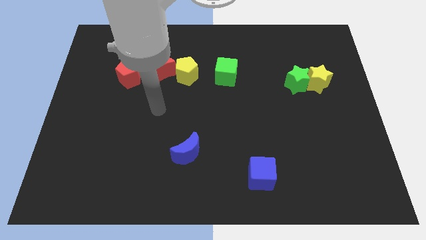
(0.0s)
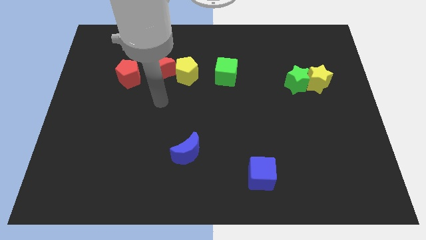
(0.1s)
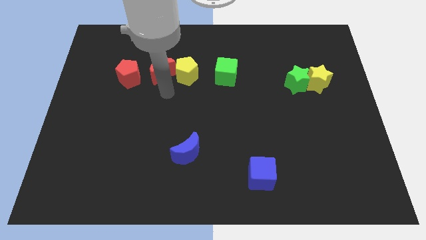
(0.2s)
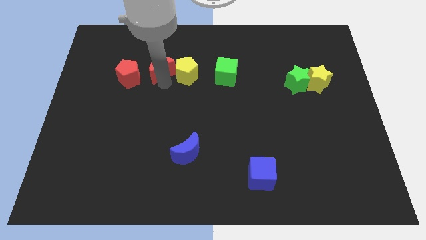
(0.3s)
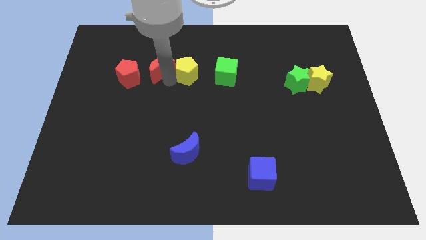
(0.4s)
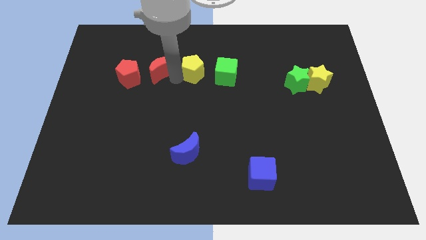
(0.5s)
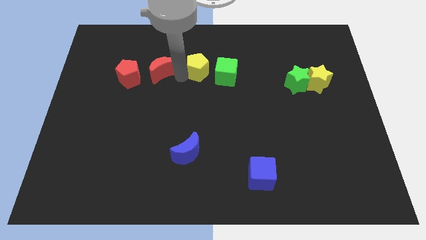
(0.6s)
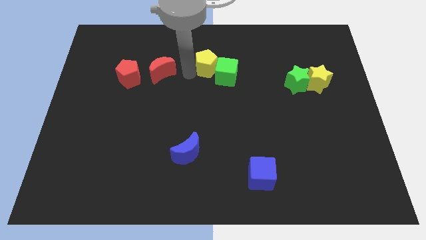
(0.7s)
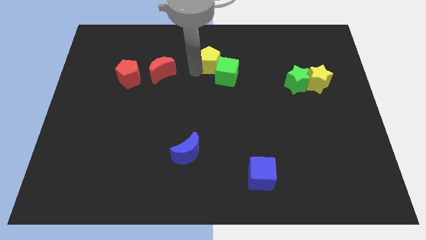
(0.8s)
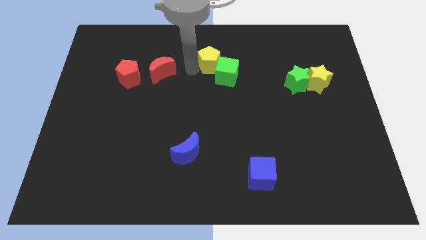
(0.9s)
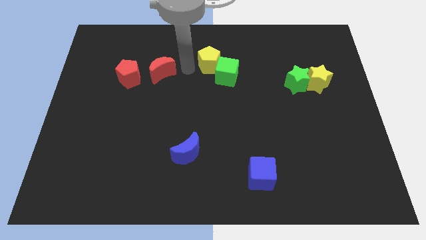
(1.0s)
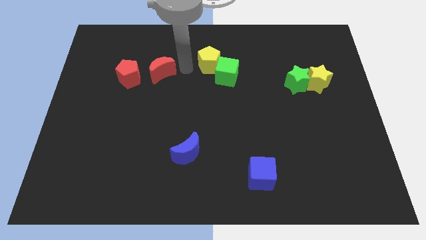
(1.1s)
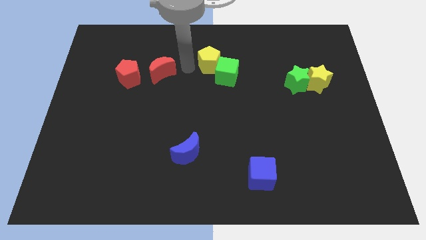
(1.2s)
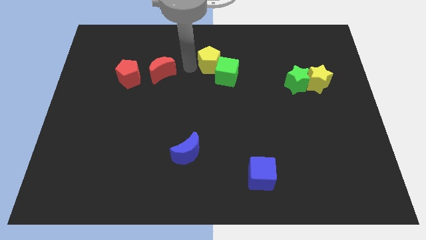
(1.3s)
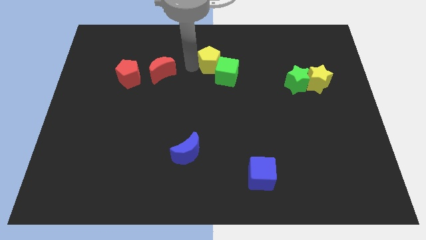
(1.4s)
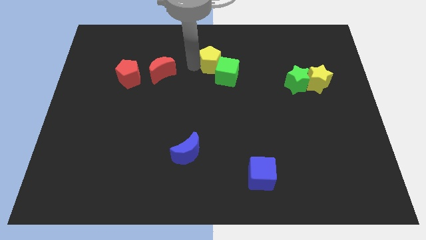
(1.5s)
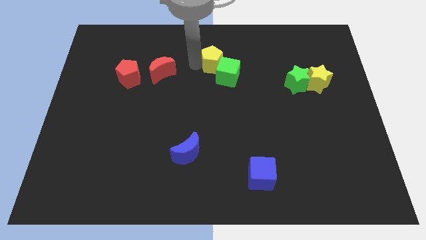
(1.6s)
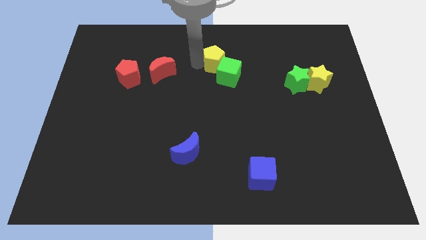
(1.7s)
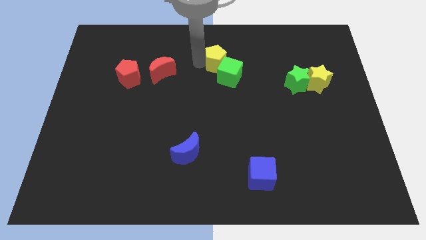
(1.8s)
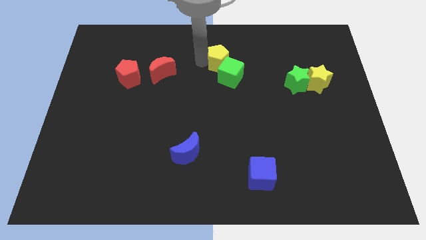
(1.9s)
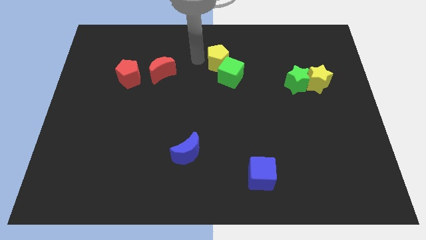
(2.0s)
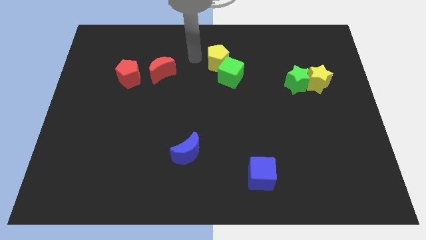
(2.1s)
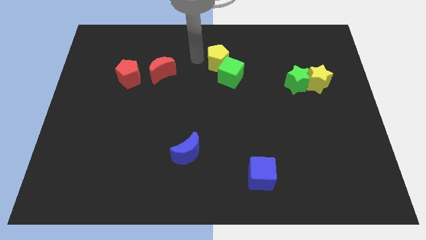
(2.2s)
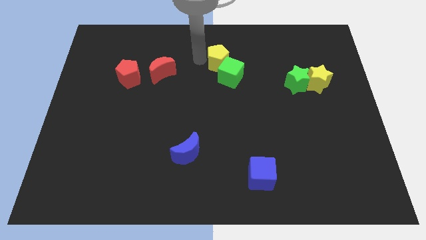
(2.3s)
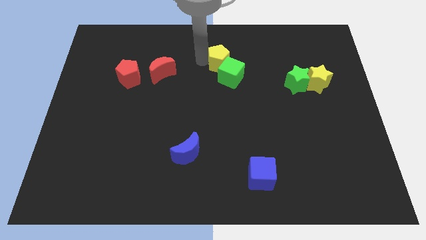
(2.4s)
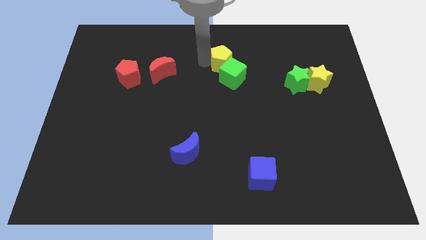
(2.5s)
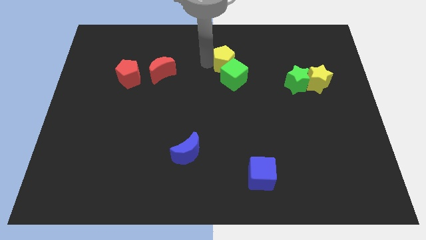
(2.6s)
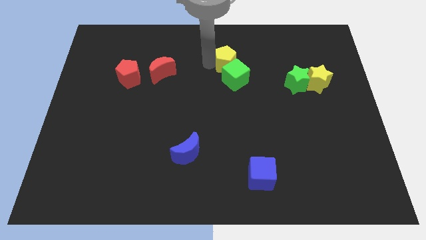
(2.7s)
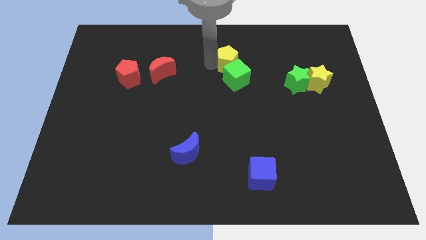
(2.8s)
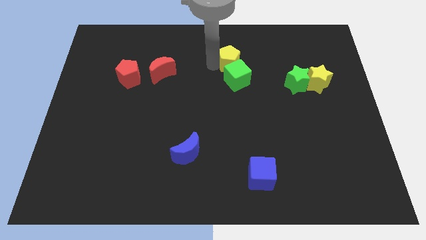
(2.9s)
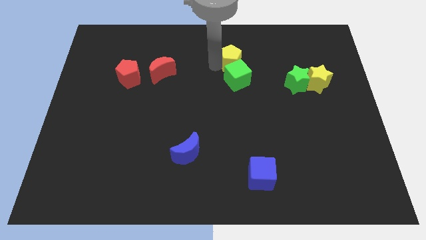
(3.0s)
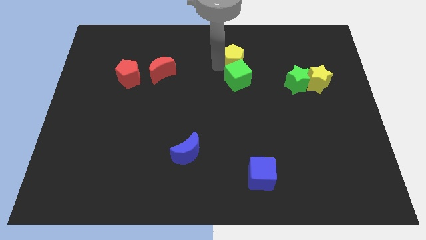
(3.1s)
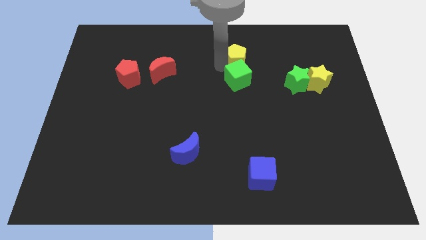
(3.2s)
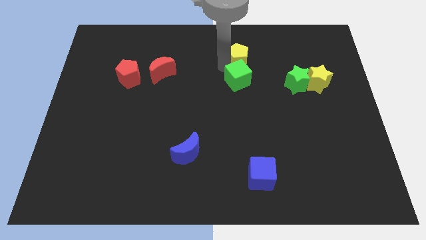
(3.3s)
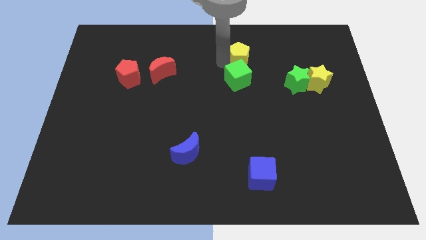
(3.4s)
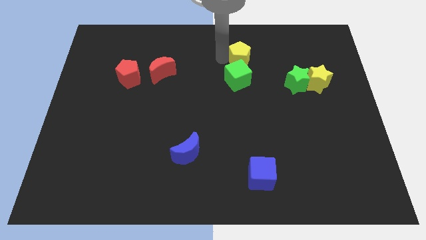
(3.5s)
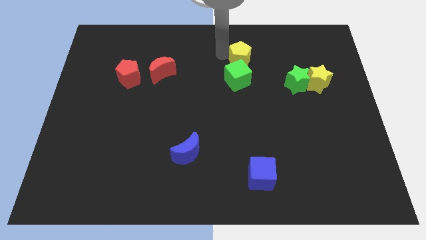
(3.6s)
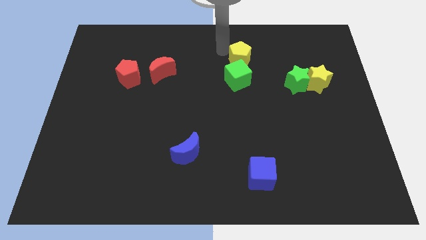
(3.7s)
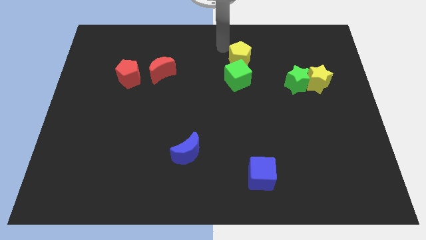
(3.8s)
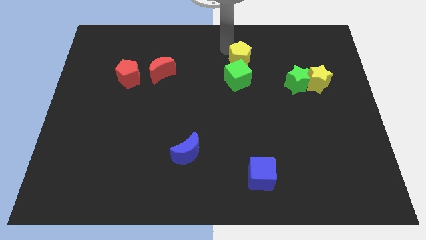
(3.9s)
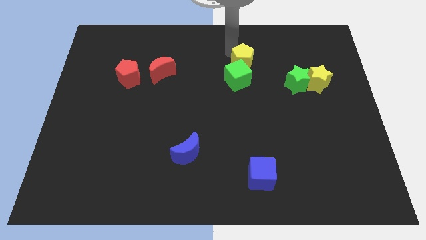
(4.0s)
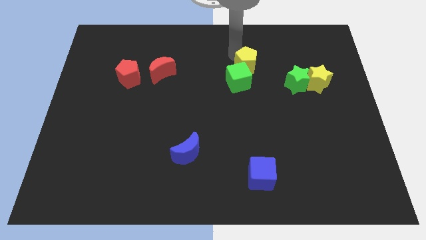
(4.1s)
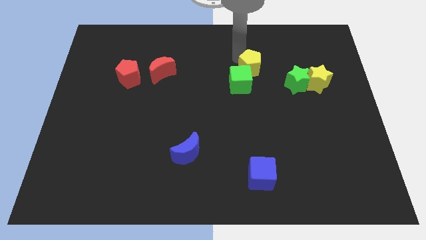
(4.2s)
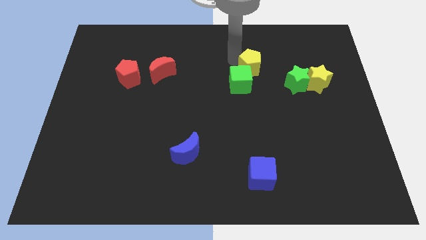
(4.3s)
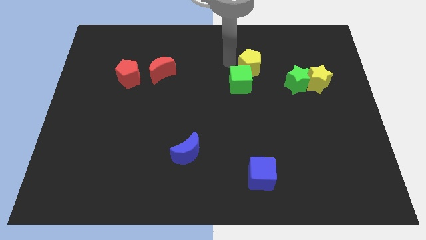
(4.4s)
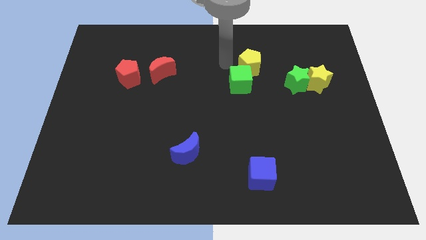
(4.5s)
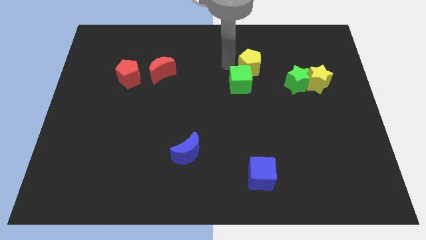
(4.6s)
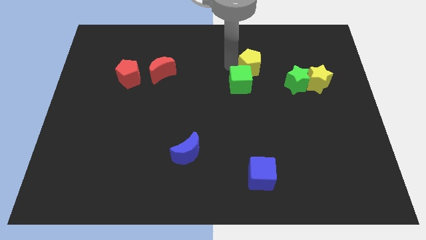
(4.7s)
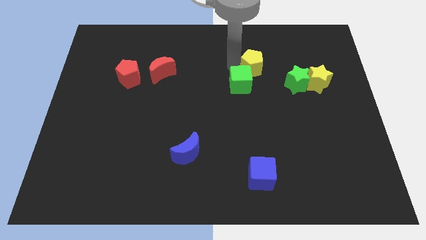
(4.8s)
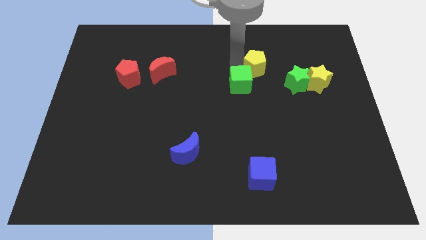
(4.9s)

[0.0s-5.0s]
move the yellow pentagon to the top left side of the green star

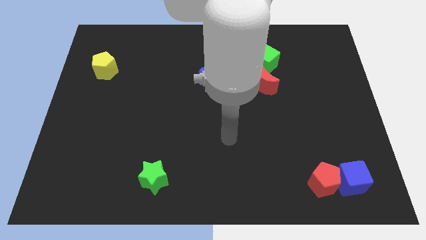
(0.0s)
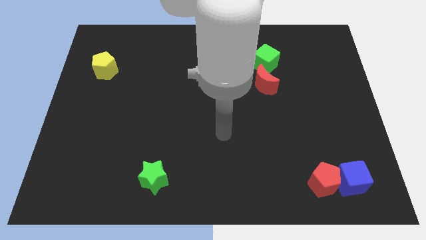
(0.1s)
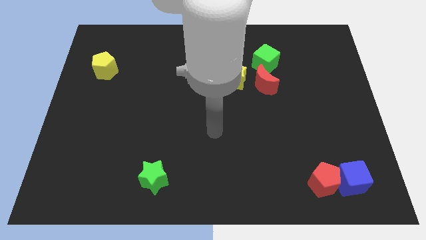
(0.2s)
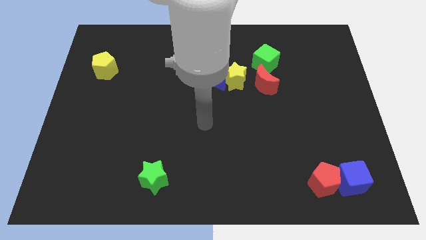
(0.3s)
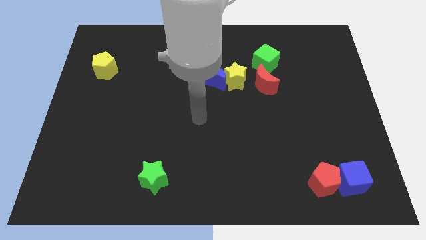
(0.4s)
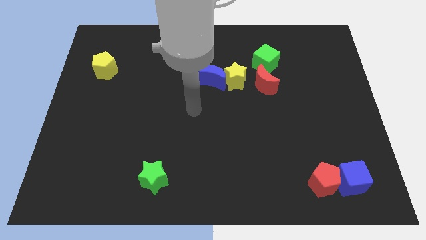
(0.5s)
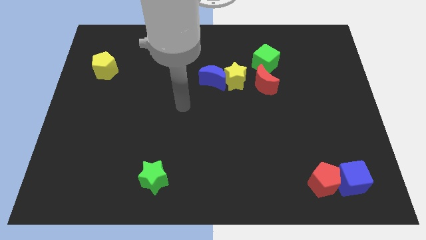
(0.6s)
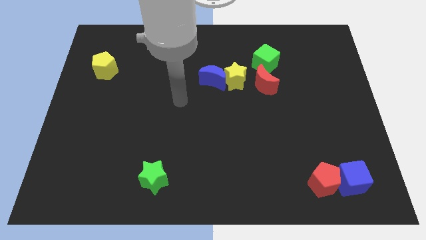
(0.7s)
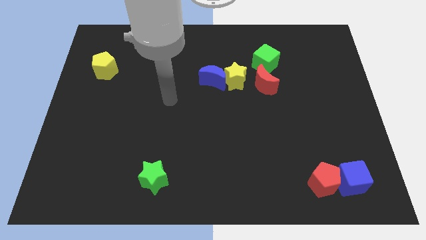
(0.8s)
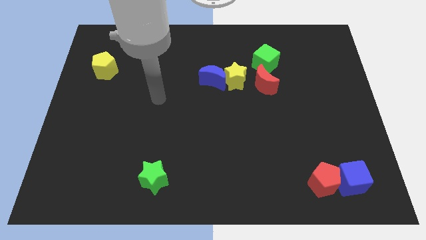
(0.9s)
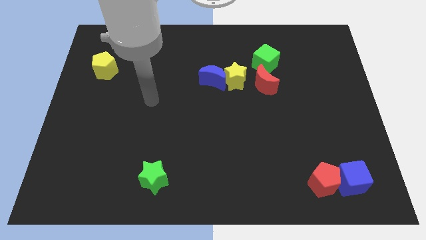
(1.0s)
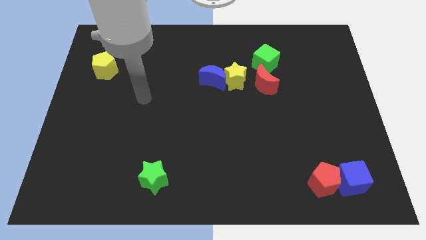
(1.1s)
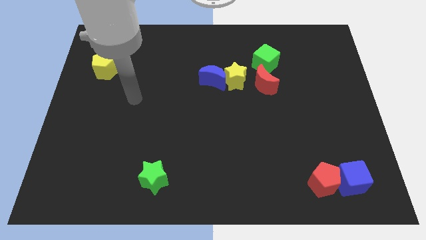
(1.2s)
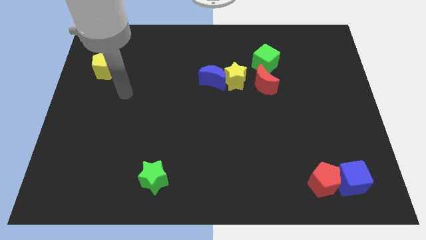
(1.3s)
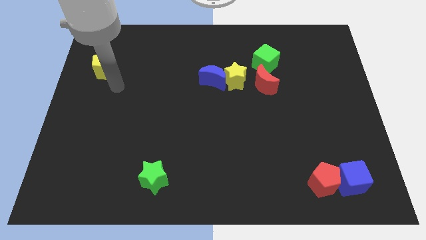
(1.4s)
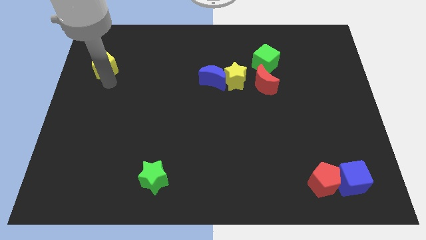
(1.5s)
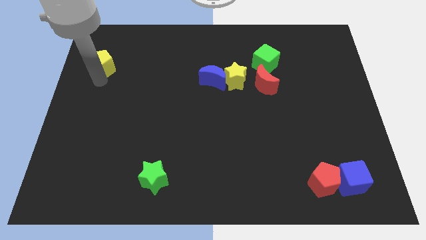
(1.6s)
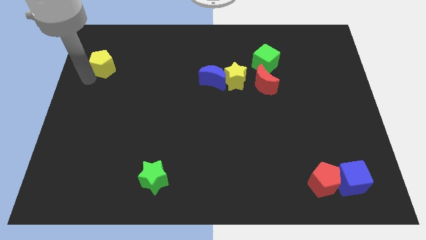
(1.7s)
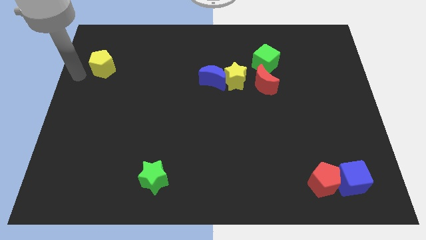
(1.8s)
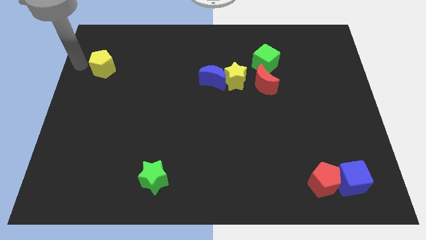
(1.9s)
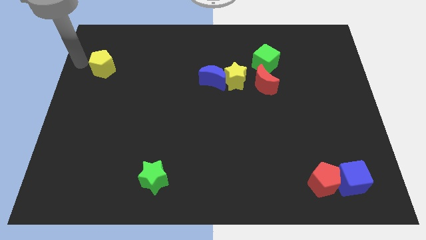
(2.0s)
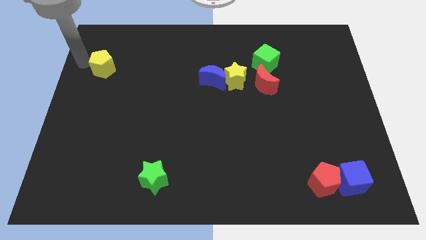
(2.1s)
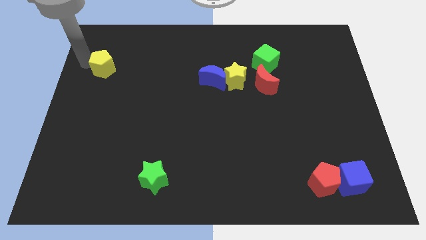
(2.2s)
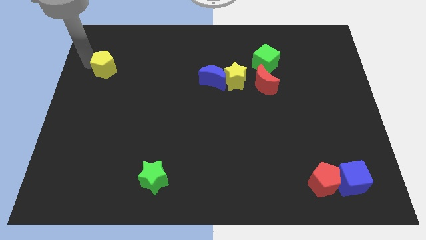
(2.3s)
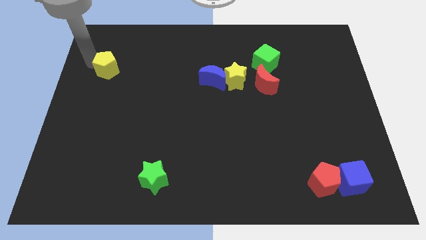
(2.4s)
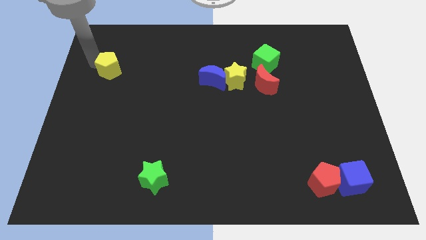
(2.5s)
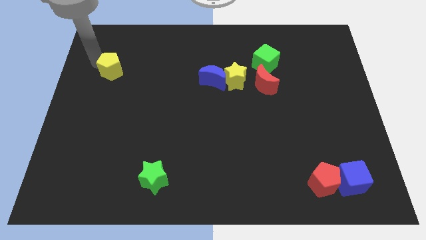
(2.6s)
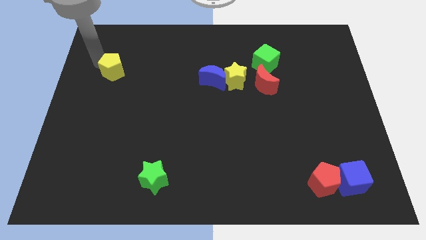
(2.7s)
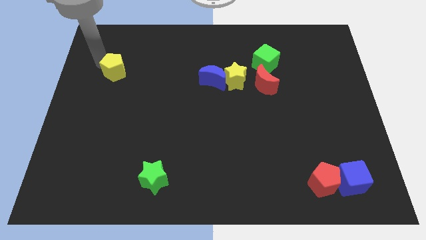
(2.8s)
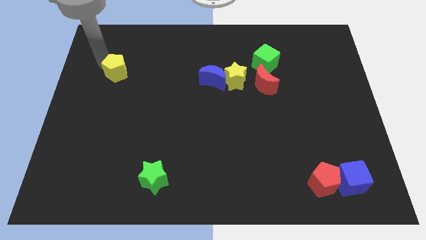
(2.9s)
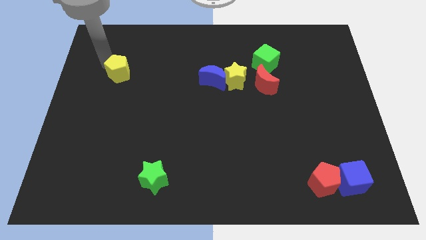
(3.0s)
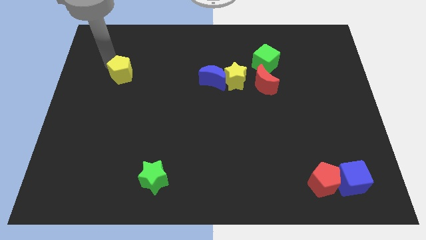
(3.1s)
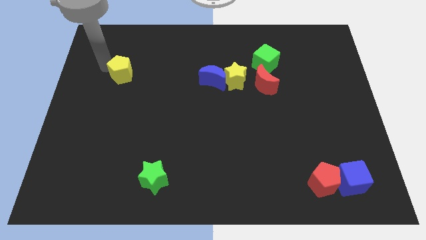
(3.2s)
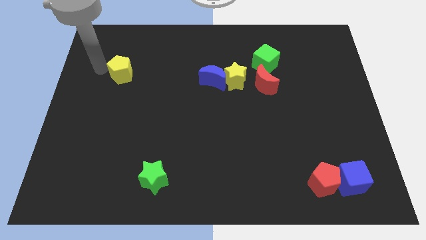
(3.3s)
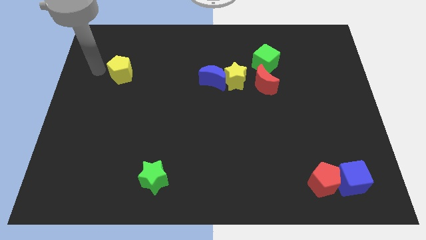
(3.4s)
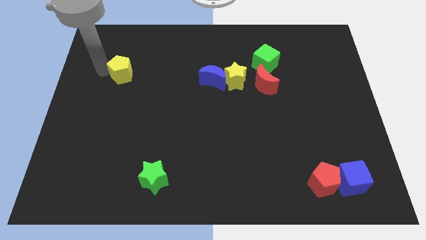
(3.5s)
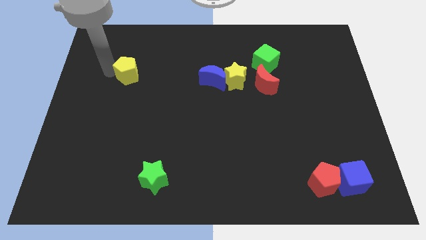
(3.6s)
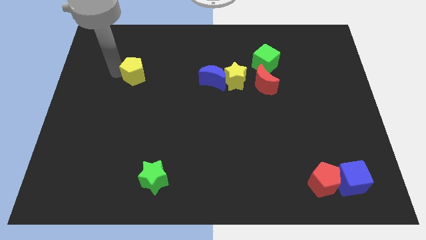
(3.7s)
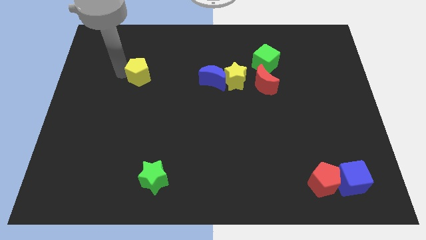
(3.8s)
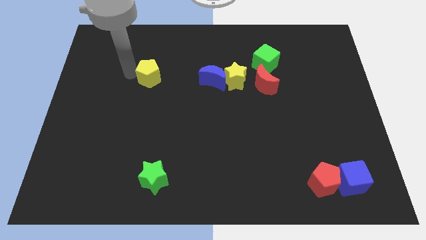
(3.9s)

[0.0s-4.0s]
slide the yellow pentagon to the left side of the blue moon
